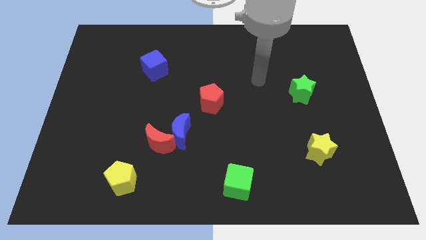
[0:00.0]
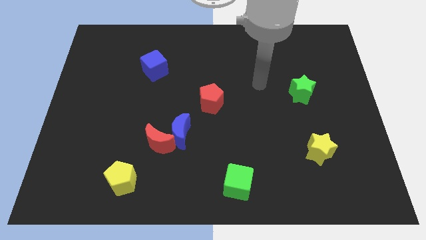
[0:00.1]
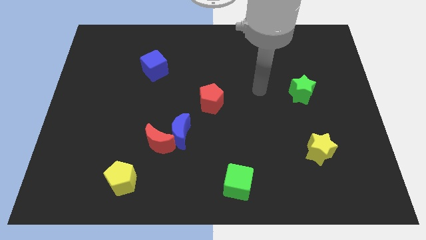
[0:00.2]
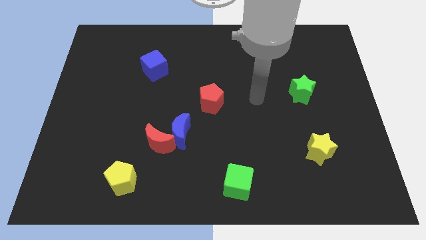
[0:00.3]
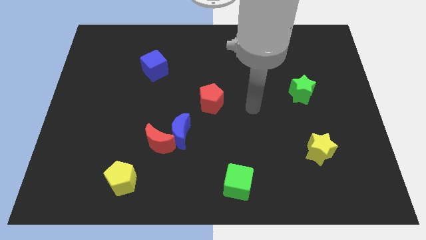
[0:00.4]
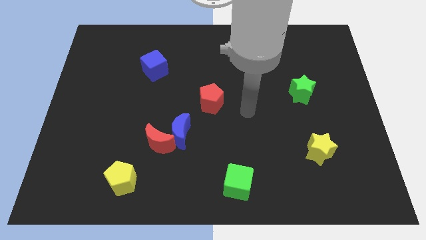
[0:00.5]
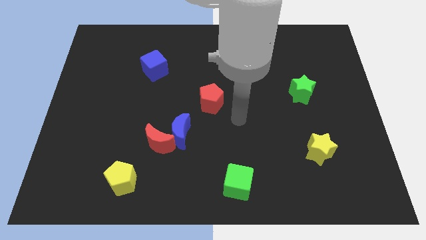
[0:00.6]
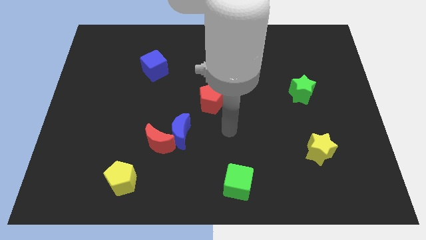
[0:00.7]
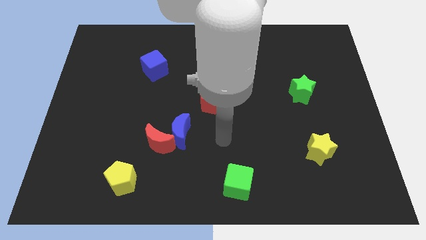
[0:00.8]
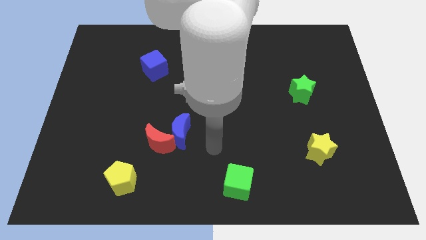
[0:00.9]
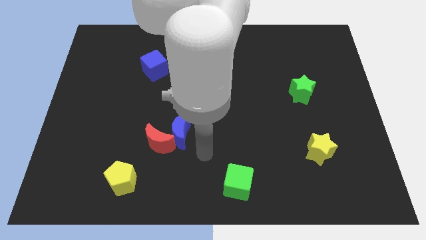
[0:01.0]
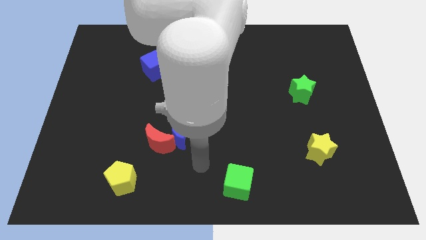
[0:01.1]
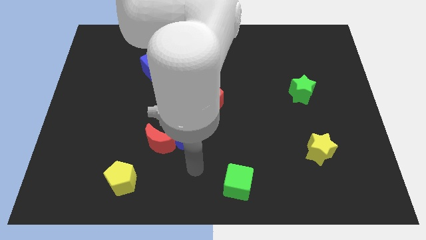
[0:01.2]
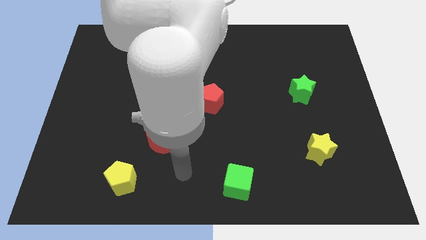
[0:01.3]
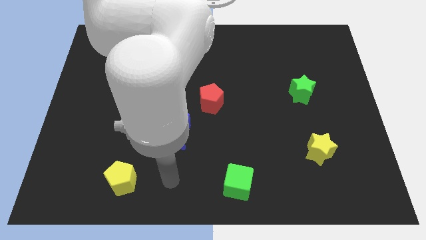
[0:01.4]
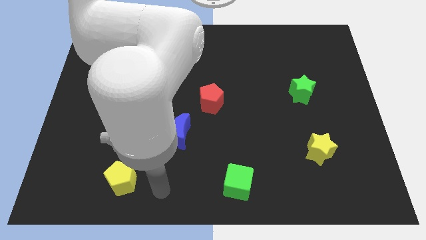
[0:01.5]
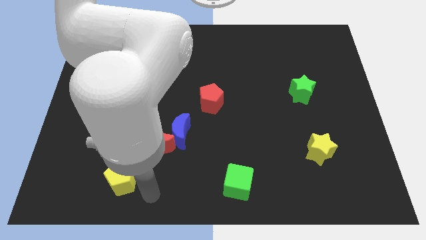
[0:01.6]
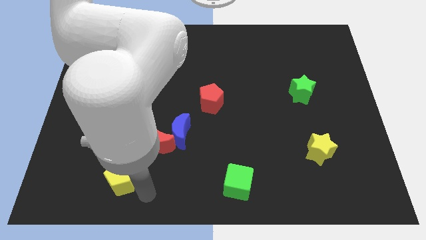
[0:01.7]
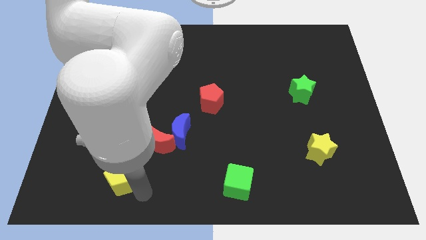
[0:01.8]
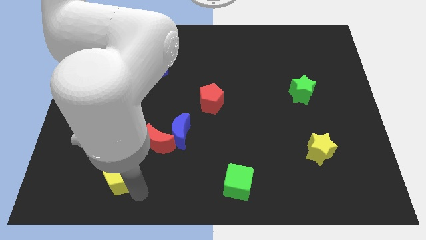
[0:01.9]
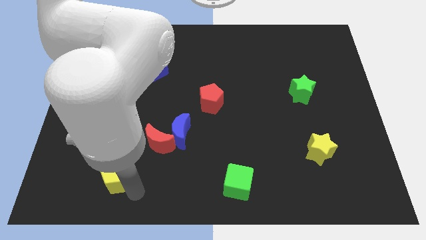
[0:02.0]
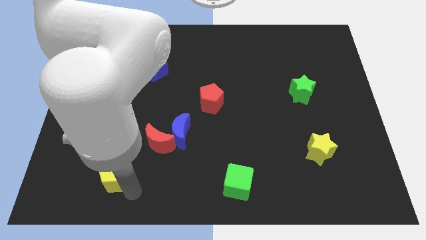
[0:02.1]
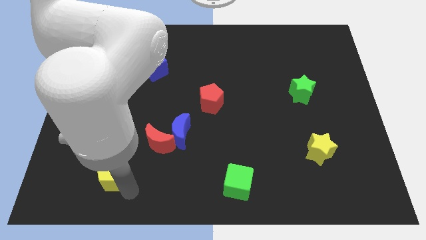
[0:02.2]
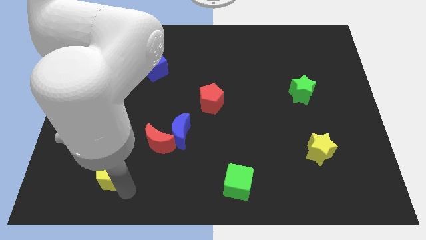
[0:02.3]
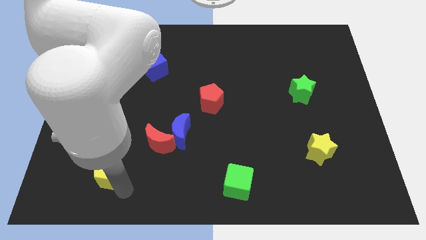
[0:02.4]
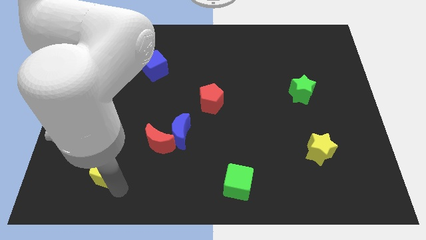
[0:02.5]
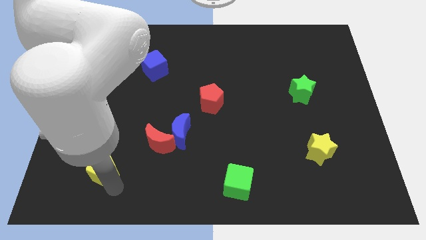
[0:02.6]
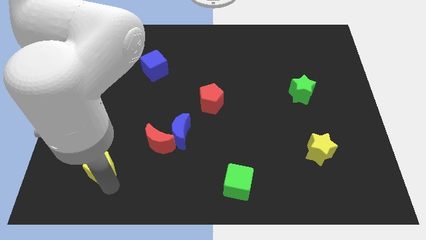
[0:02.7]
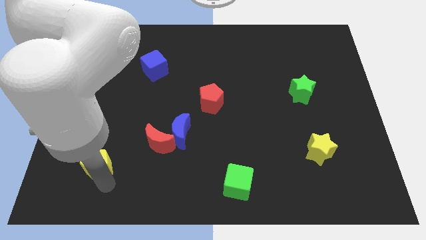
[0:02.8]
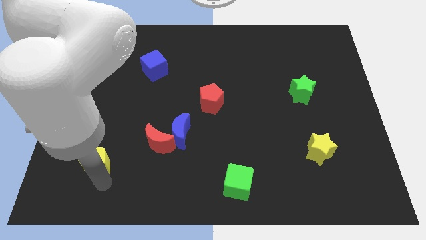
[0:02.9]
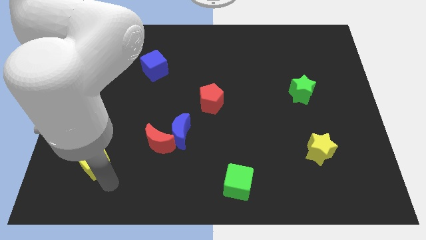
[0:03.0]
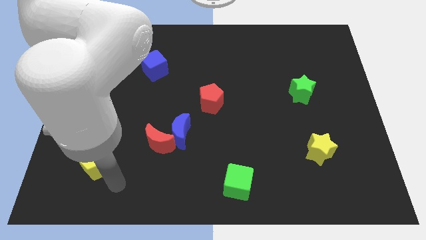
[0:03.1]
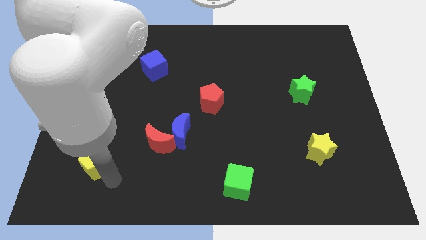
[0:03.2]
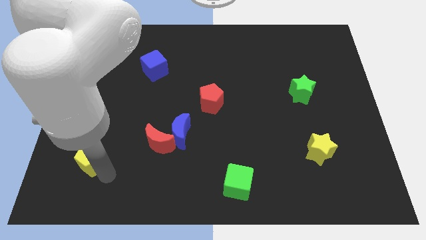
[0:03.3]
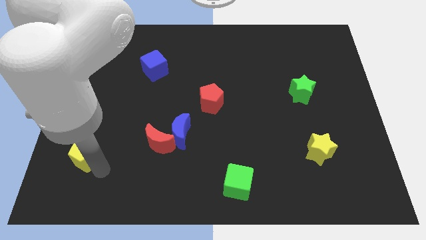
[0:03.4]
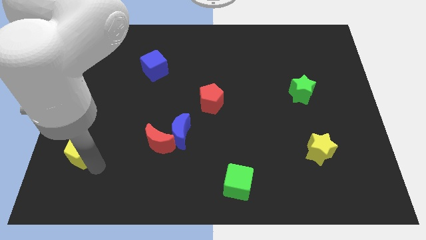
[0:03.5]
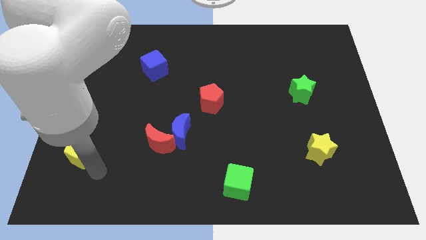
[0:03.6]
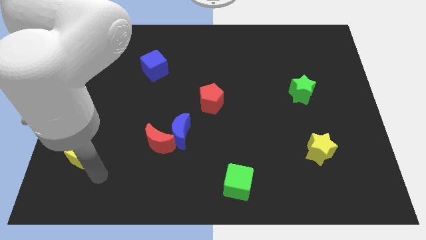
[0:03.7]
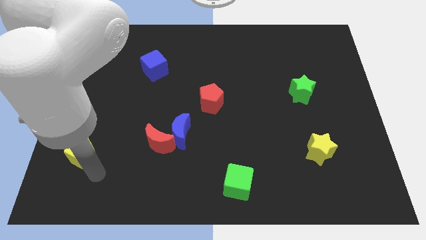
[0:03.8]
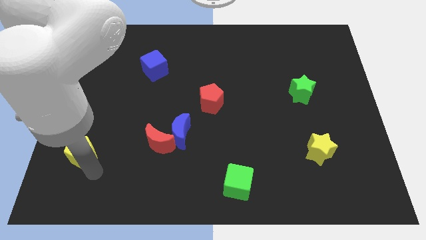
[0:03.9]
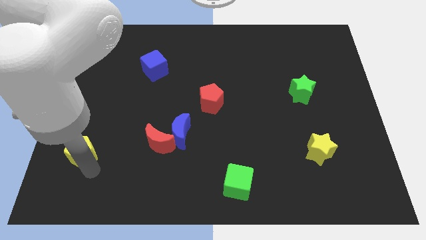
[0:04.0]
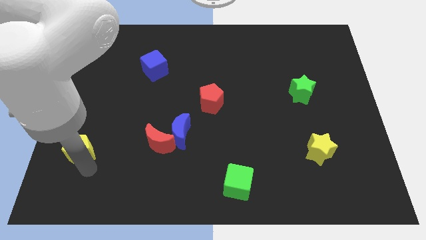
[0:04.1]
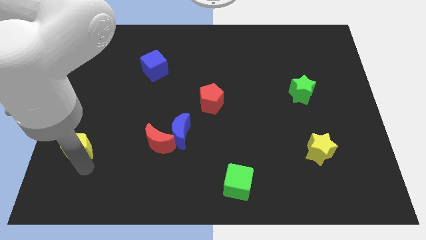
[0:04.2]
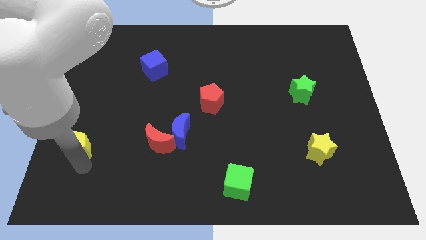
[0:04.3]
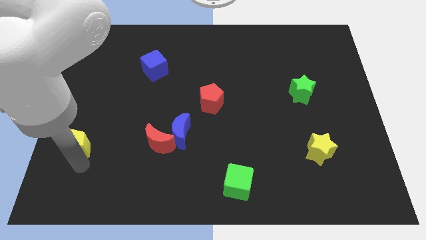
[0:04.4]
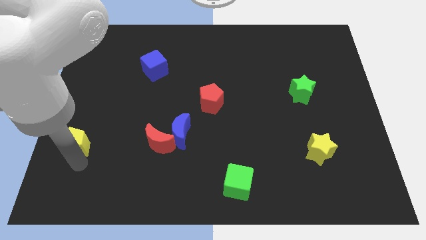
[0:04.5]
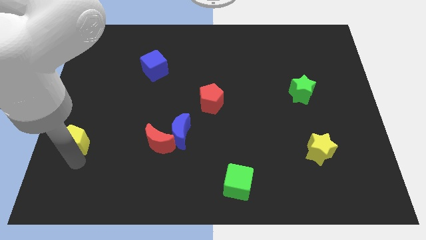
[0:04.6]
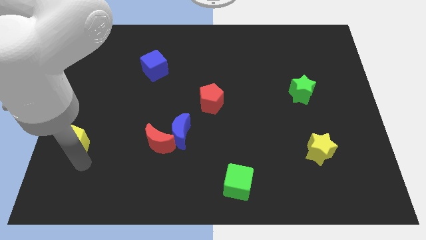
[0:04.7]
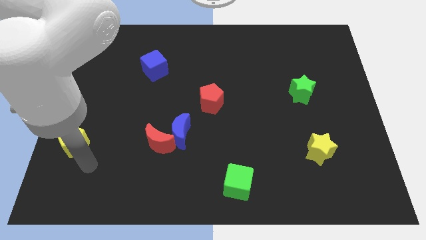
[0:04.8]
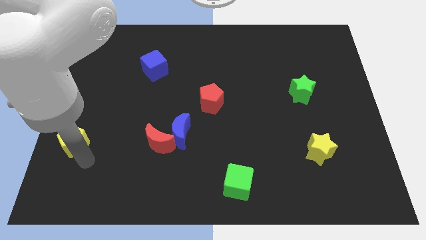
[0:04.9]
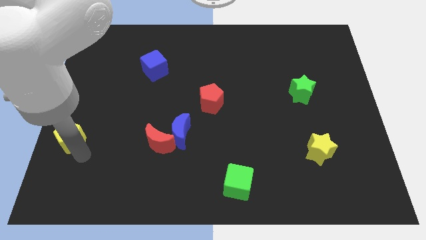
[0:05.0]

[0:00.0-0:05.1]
move the yellow pentagon to the center left
